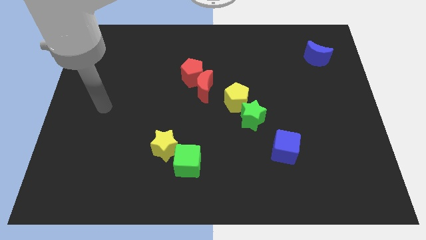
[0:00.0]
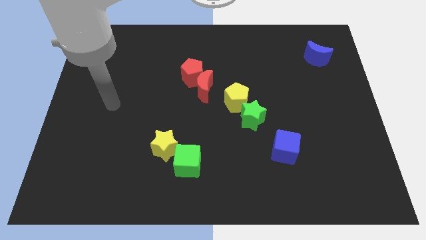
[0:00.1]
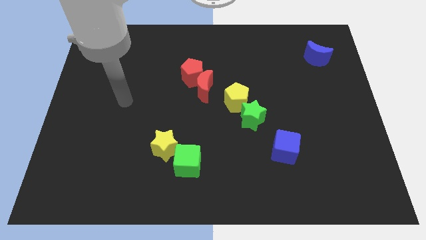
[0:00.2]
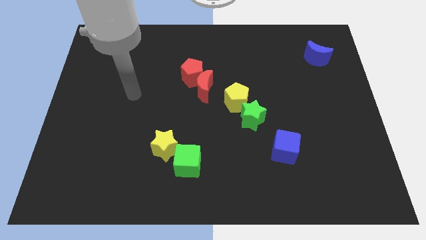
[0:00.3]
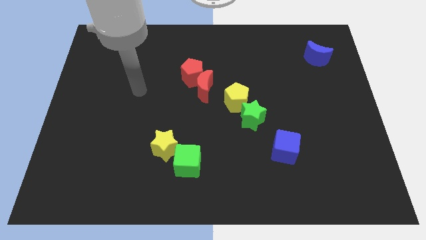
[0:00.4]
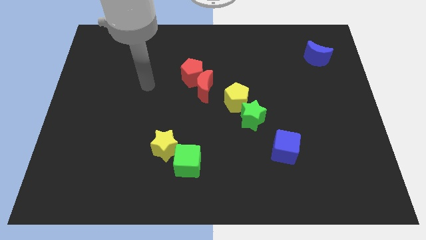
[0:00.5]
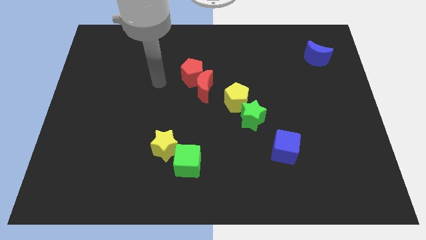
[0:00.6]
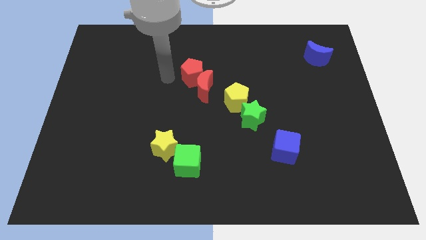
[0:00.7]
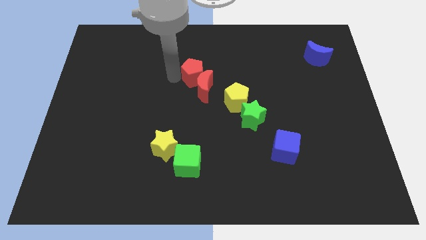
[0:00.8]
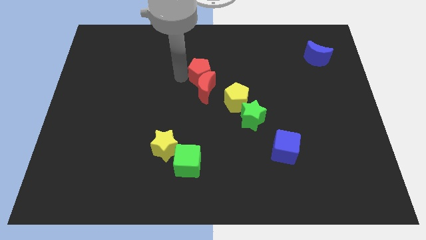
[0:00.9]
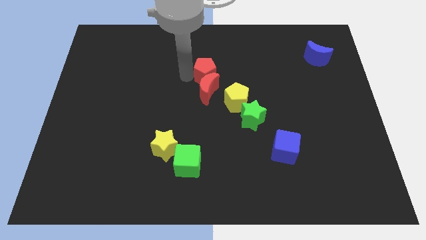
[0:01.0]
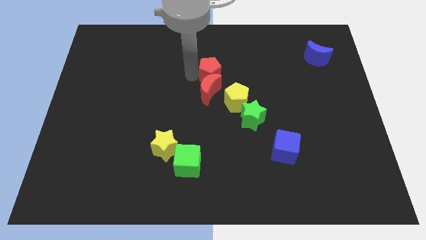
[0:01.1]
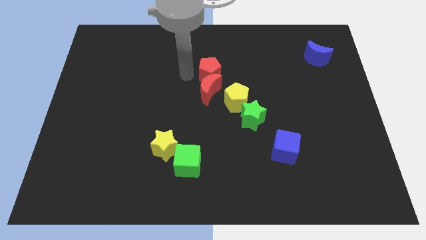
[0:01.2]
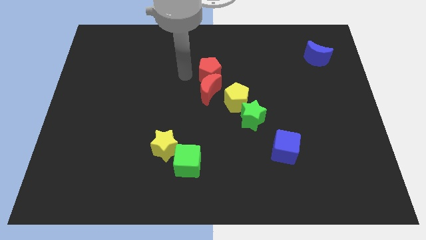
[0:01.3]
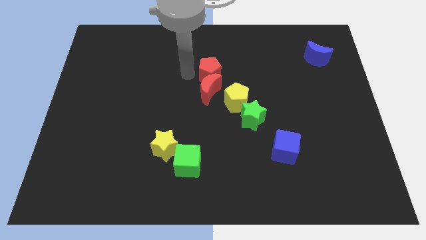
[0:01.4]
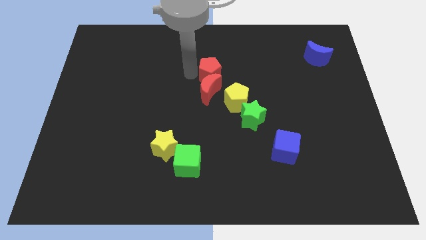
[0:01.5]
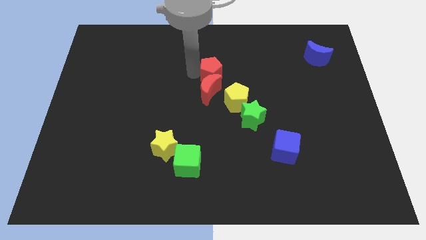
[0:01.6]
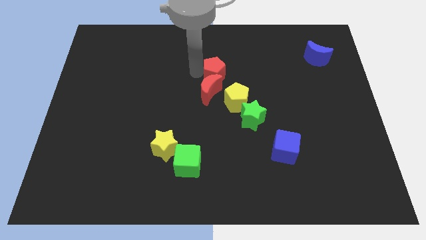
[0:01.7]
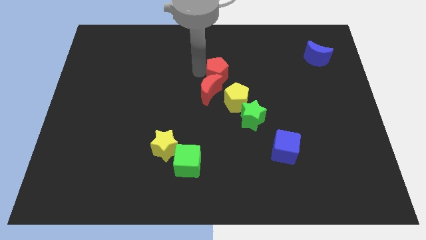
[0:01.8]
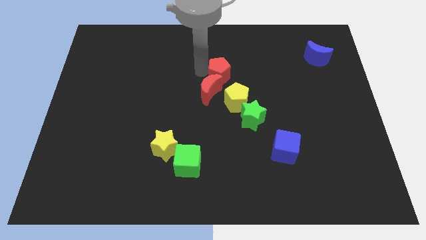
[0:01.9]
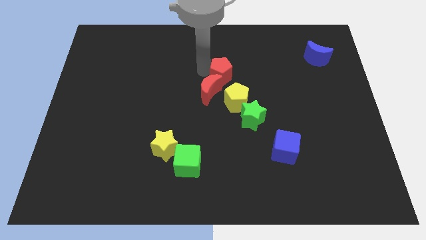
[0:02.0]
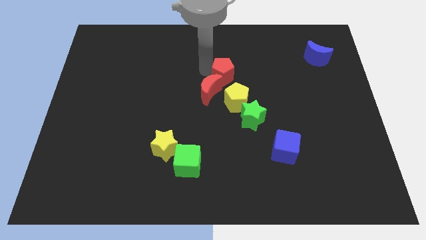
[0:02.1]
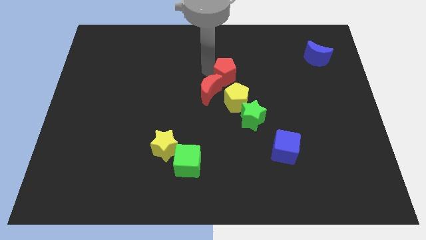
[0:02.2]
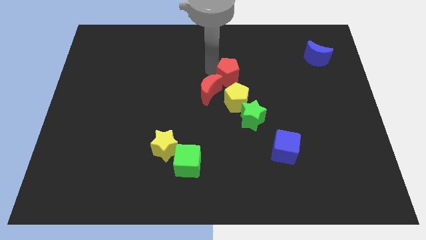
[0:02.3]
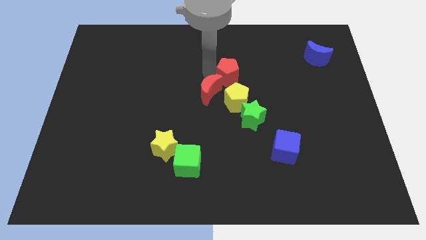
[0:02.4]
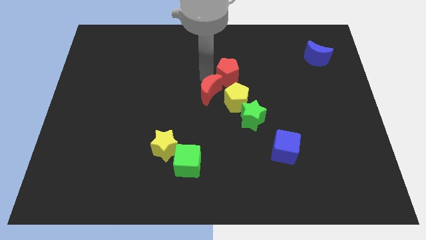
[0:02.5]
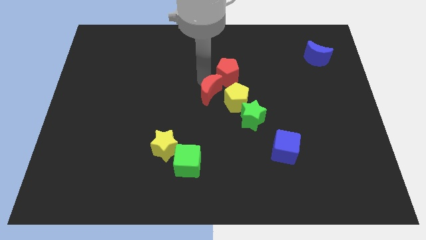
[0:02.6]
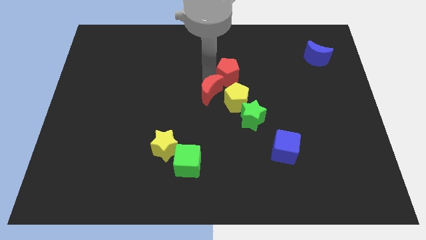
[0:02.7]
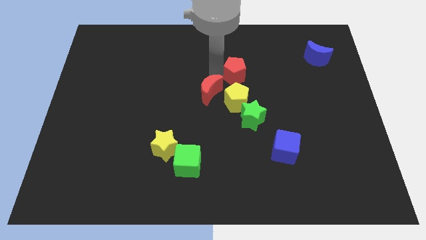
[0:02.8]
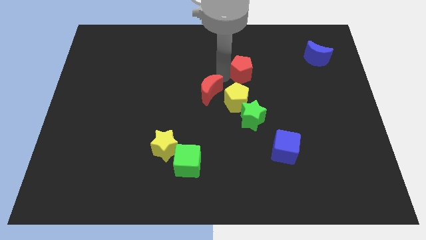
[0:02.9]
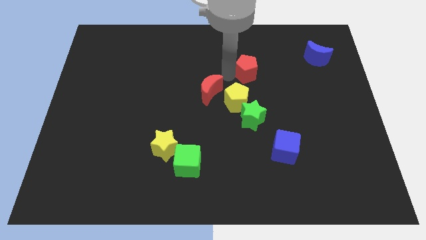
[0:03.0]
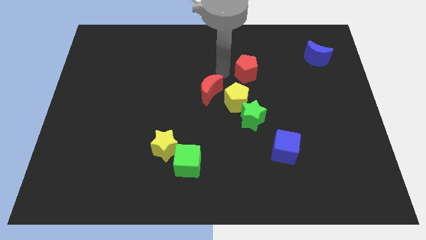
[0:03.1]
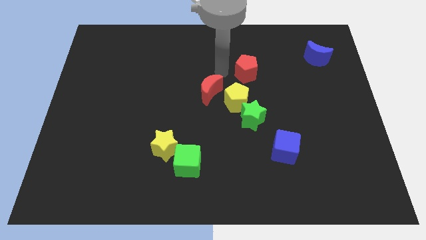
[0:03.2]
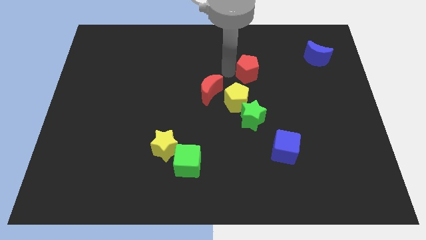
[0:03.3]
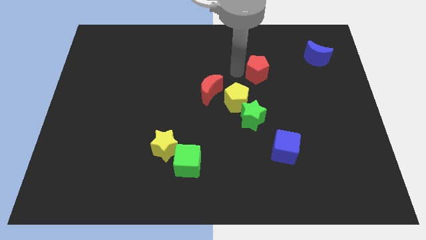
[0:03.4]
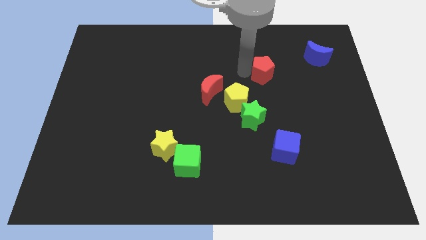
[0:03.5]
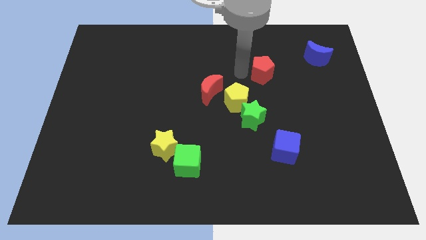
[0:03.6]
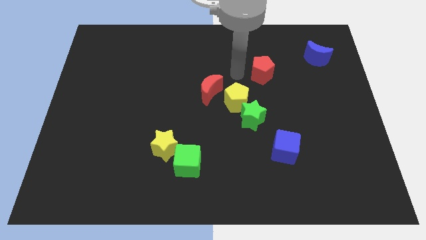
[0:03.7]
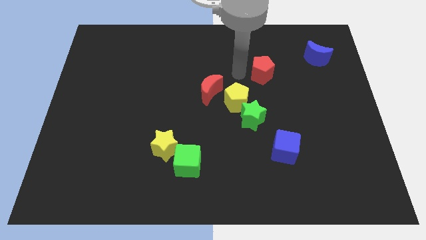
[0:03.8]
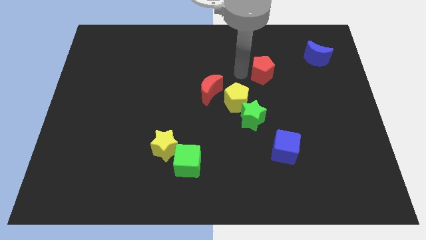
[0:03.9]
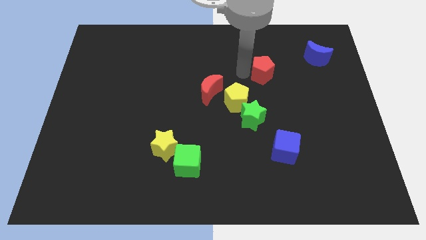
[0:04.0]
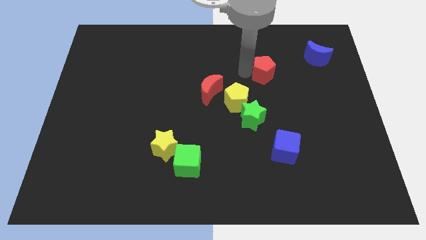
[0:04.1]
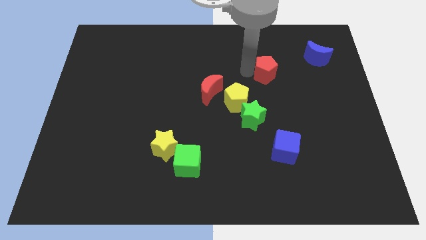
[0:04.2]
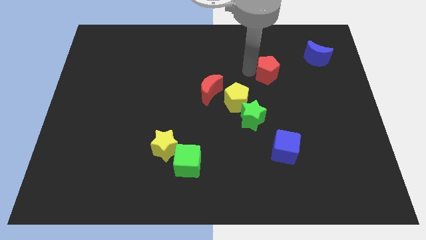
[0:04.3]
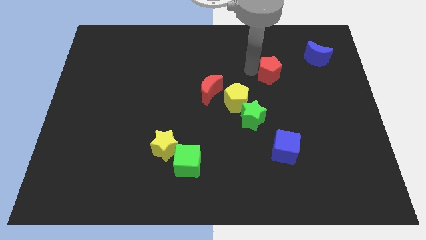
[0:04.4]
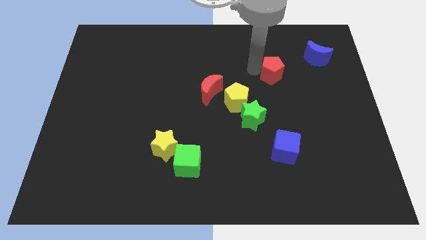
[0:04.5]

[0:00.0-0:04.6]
slide the red pentagon to the right

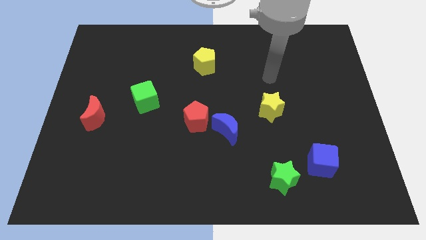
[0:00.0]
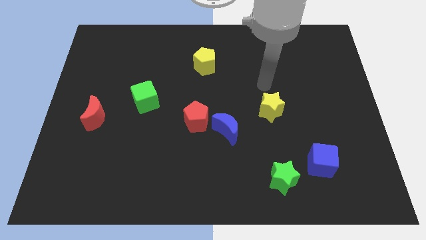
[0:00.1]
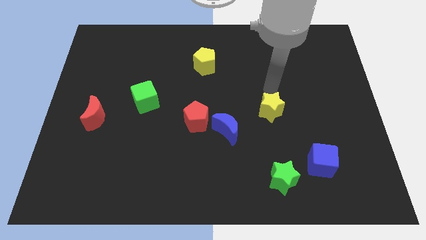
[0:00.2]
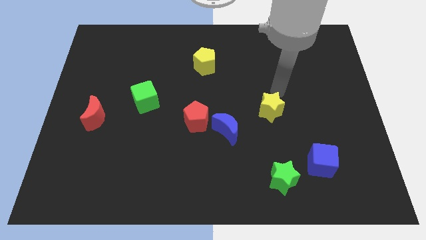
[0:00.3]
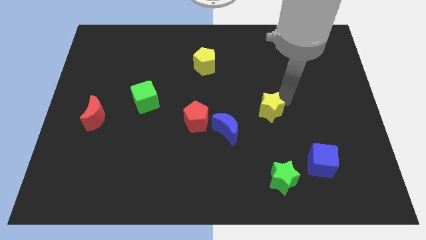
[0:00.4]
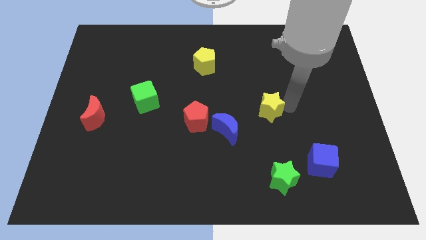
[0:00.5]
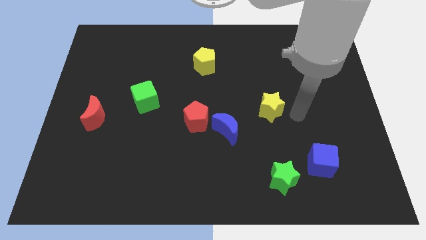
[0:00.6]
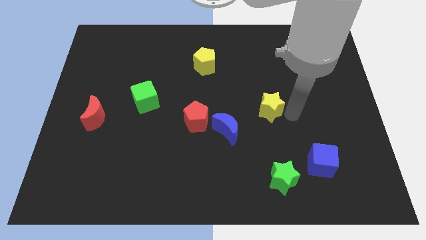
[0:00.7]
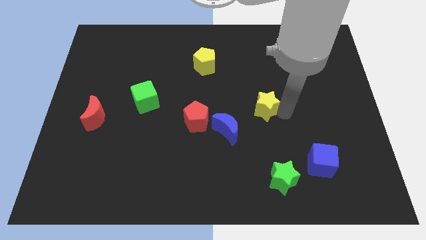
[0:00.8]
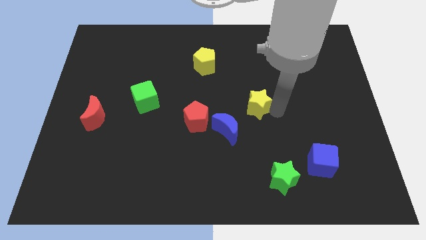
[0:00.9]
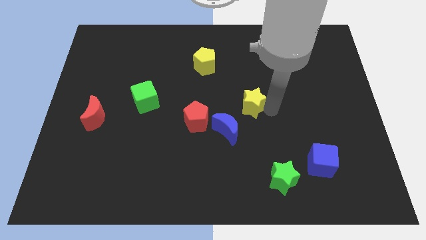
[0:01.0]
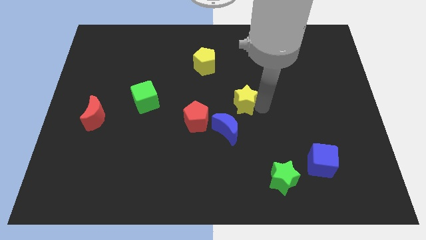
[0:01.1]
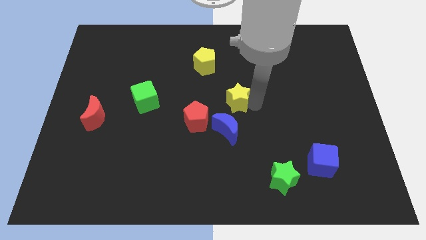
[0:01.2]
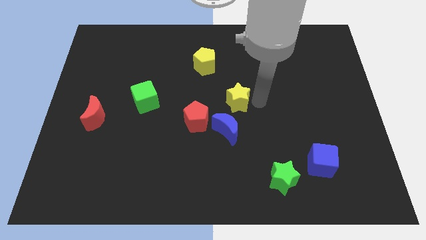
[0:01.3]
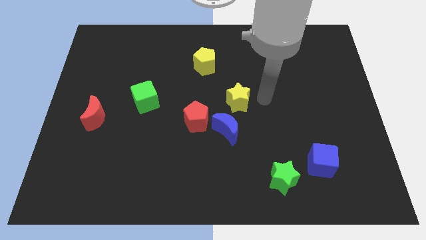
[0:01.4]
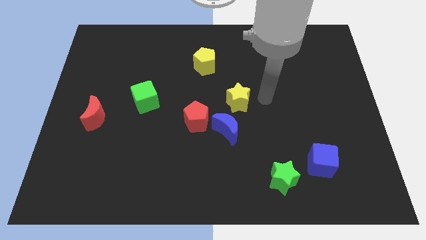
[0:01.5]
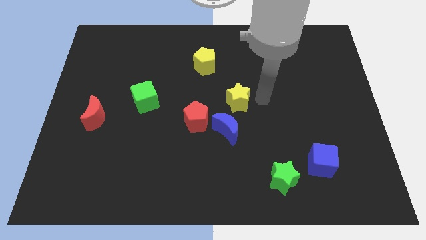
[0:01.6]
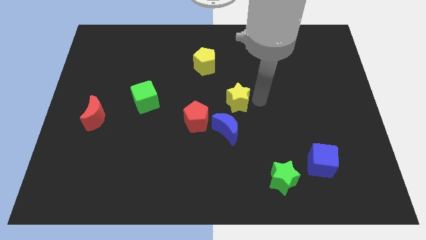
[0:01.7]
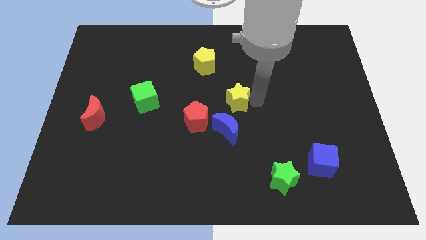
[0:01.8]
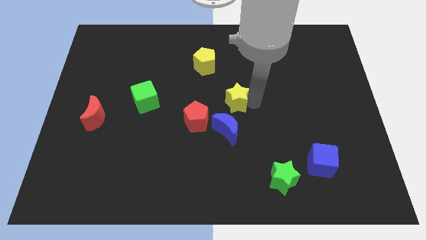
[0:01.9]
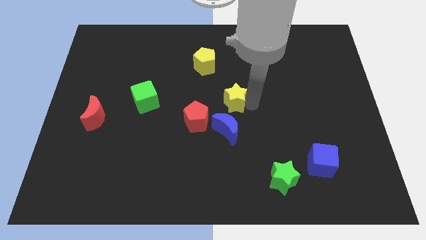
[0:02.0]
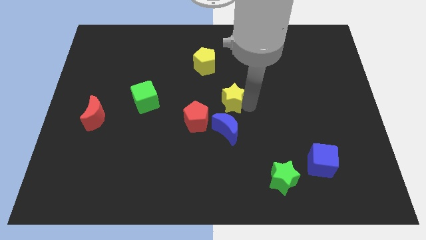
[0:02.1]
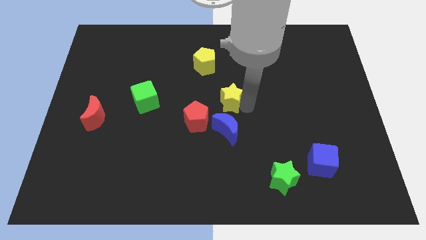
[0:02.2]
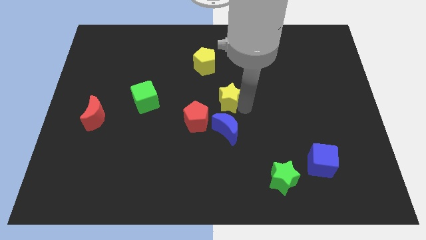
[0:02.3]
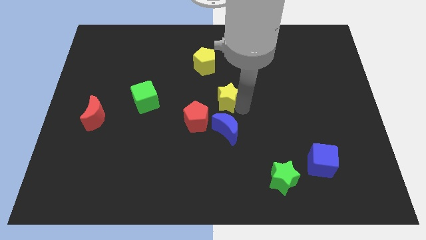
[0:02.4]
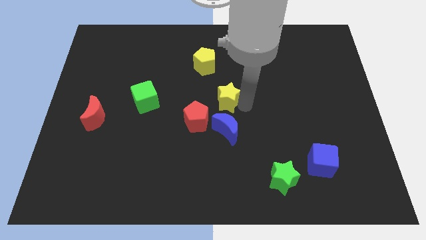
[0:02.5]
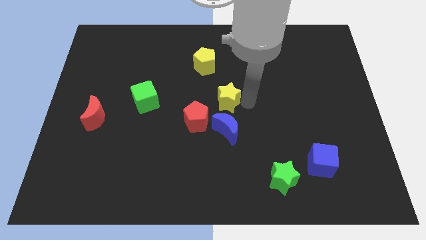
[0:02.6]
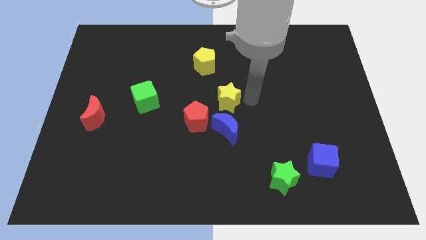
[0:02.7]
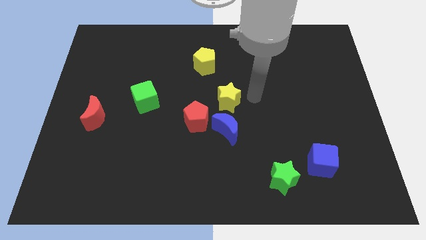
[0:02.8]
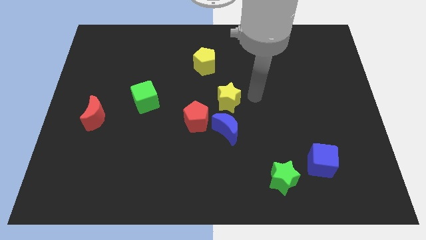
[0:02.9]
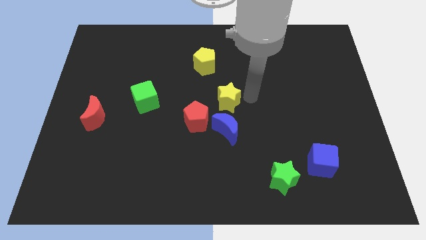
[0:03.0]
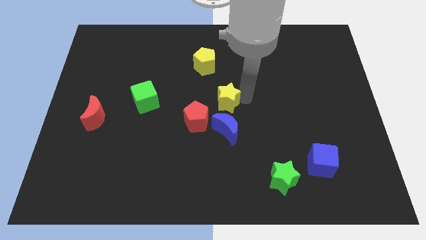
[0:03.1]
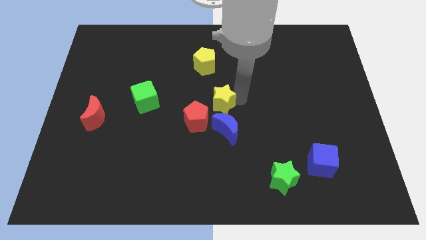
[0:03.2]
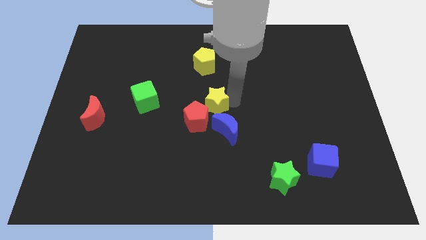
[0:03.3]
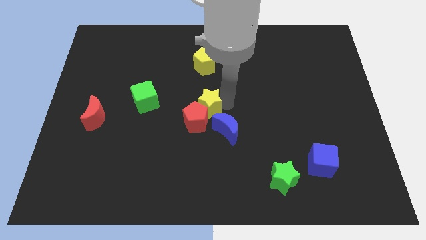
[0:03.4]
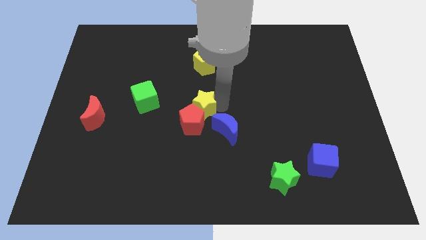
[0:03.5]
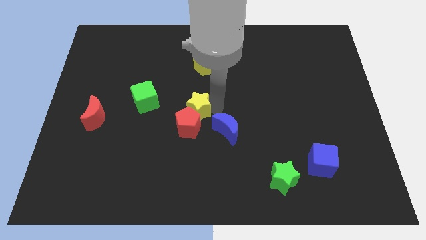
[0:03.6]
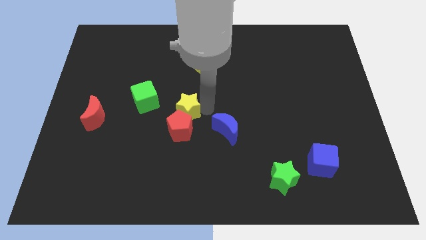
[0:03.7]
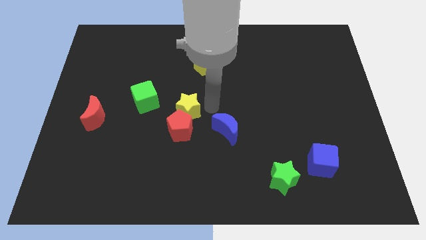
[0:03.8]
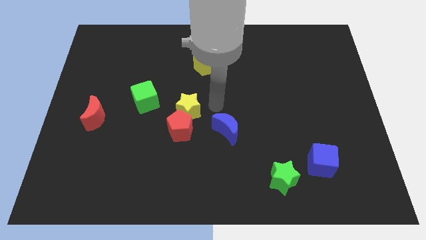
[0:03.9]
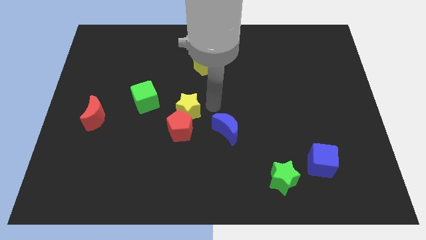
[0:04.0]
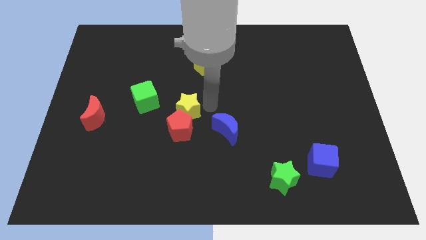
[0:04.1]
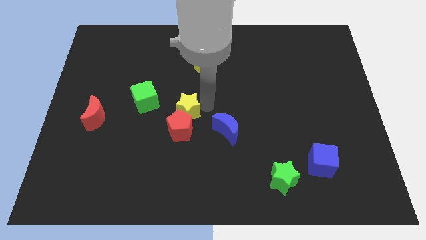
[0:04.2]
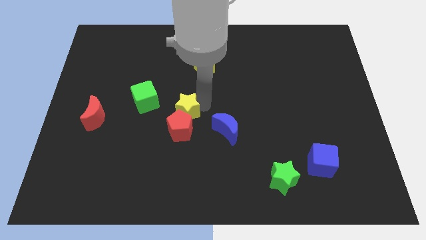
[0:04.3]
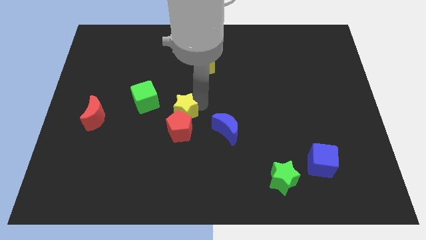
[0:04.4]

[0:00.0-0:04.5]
push the yellow star to the left
